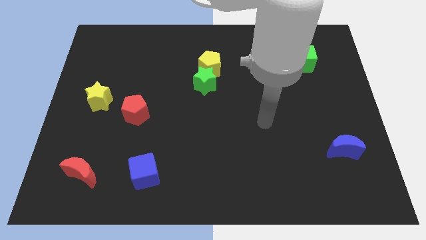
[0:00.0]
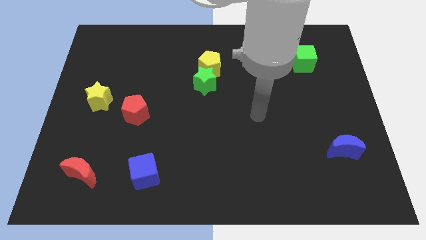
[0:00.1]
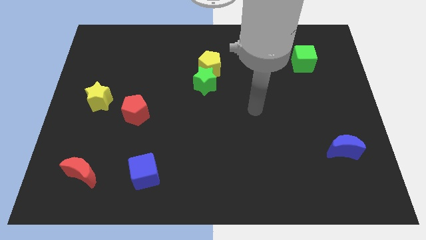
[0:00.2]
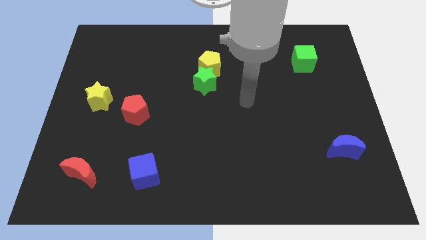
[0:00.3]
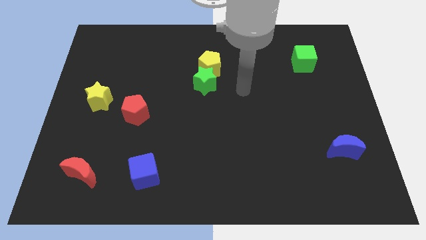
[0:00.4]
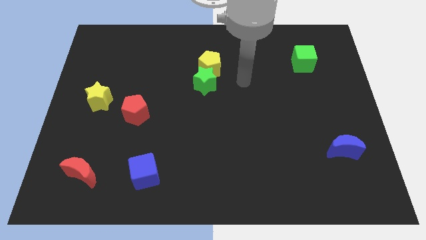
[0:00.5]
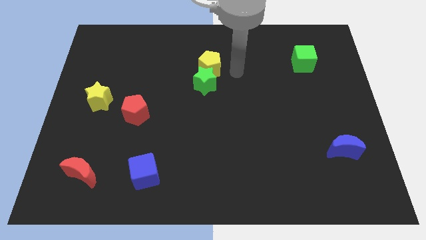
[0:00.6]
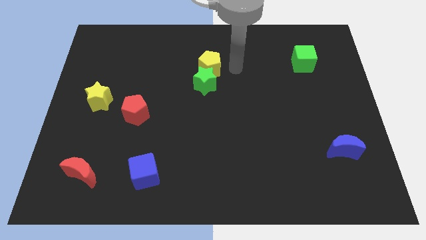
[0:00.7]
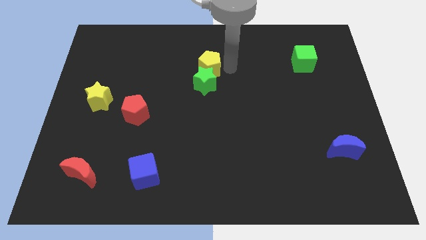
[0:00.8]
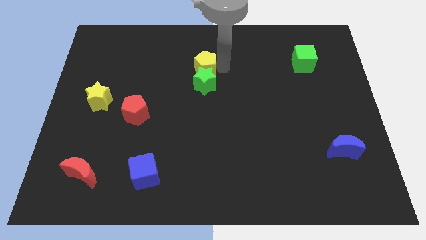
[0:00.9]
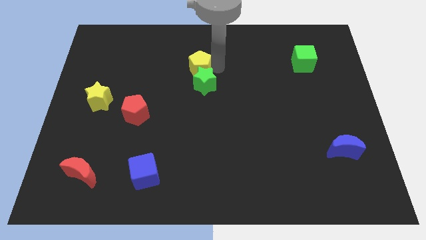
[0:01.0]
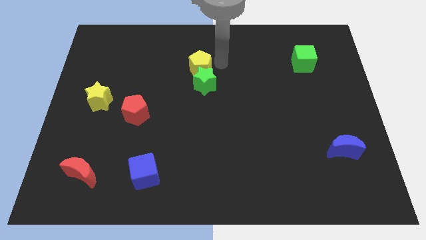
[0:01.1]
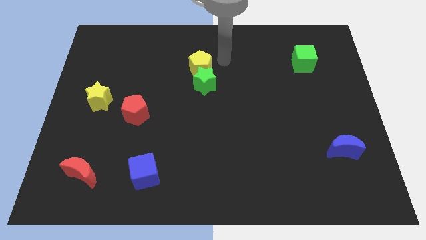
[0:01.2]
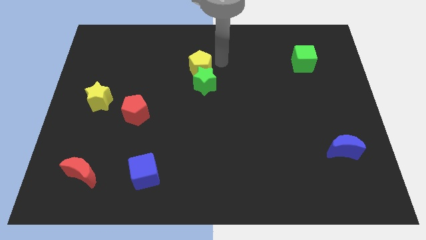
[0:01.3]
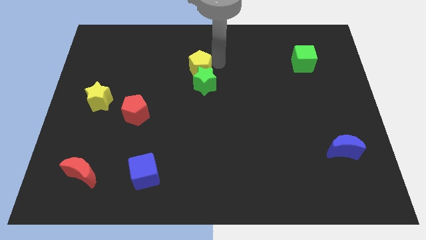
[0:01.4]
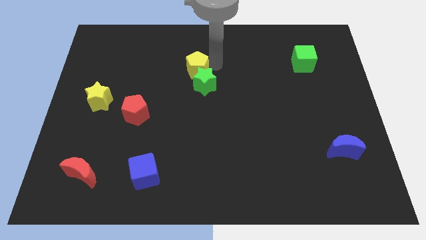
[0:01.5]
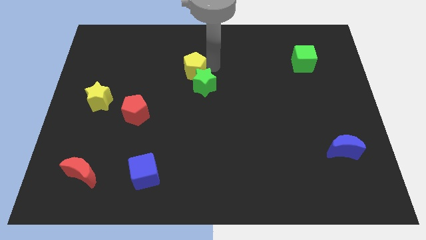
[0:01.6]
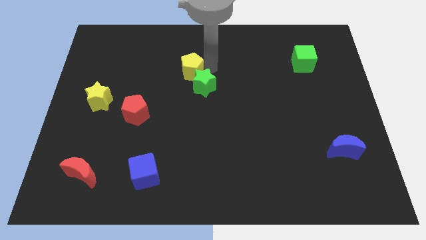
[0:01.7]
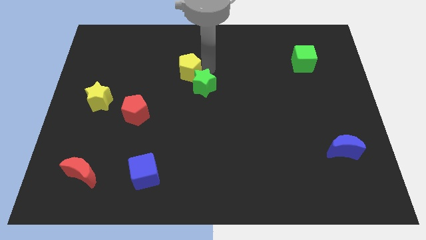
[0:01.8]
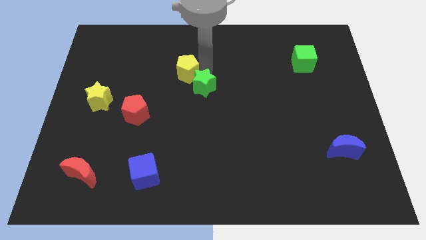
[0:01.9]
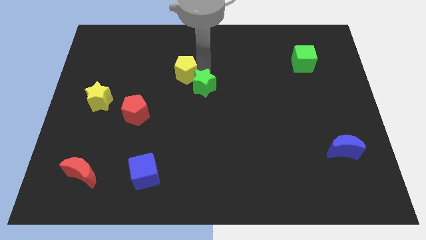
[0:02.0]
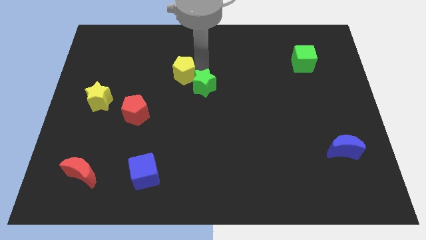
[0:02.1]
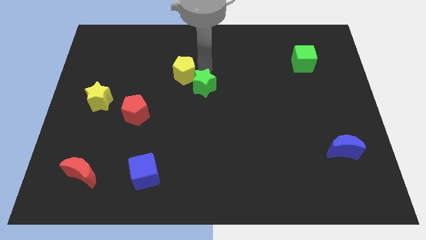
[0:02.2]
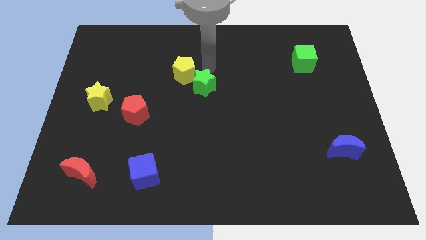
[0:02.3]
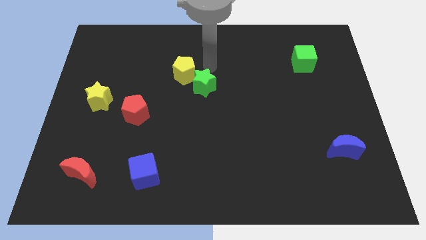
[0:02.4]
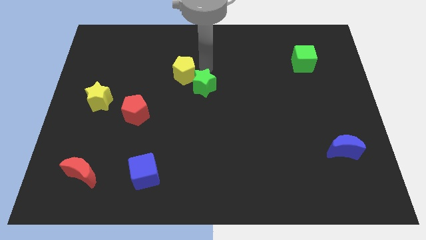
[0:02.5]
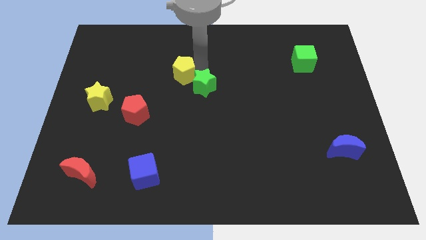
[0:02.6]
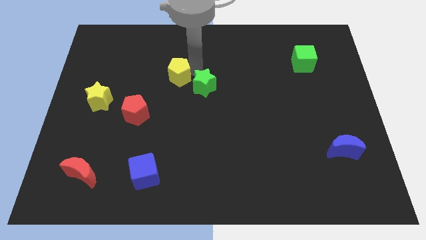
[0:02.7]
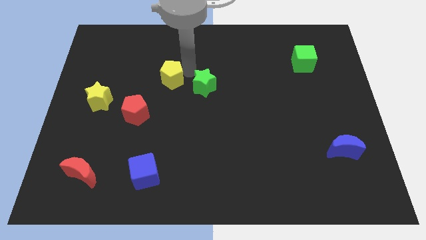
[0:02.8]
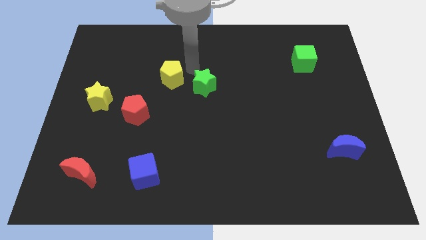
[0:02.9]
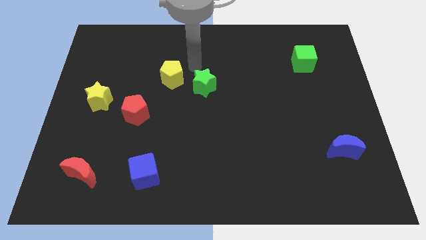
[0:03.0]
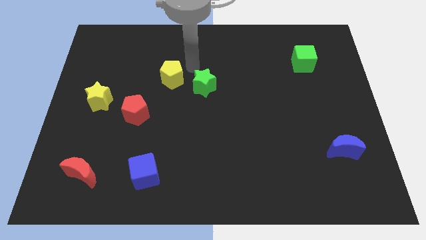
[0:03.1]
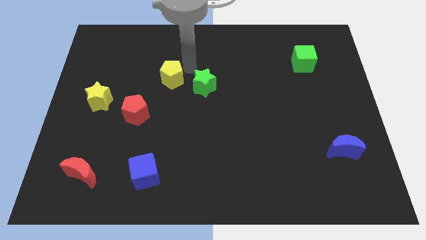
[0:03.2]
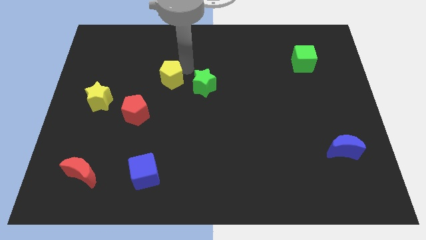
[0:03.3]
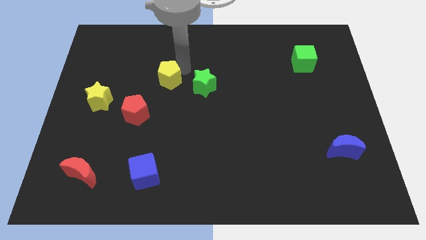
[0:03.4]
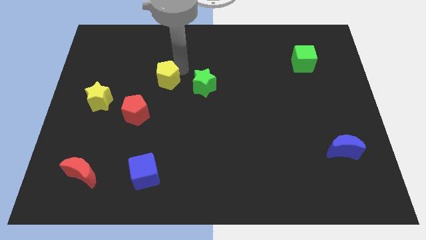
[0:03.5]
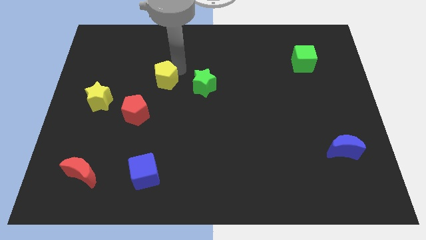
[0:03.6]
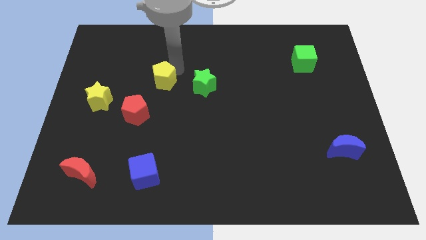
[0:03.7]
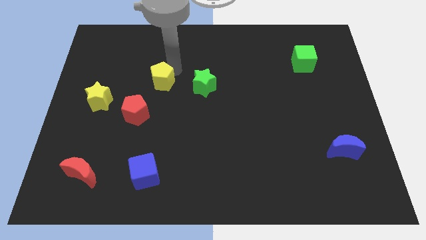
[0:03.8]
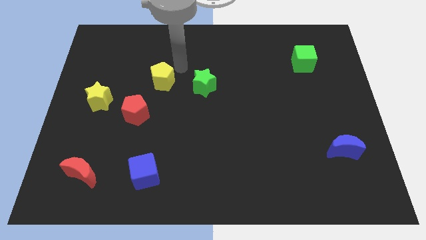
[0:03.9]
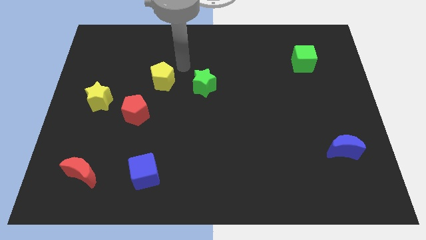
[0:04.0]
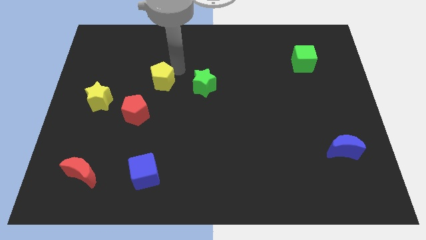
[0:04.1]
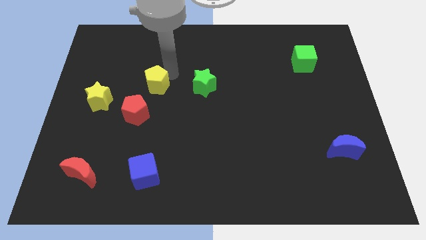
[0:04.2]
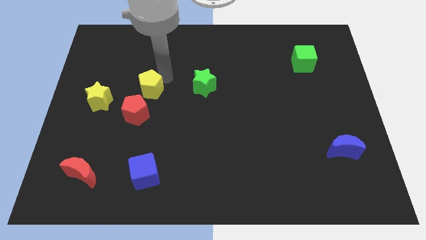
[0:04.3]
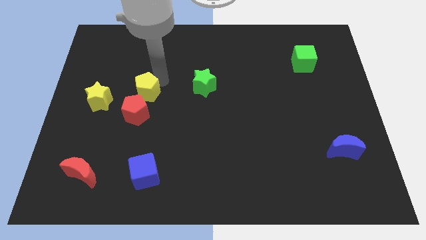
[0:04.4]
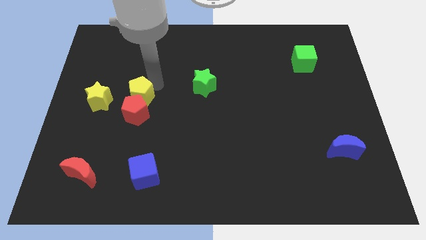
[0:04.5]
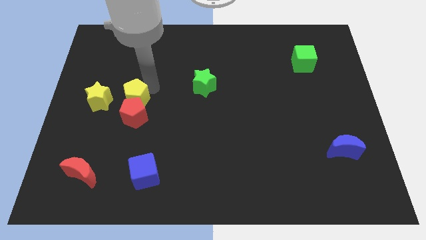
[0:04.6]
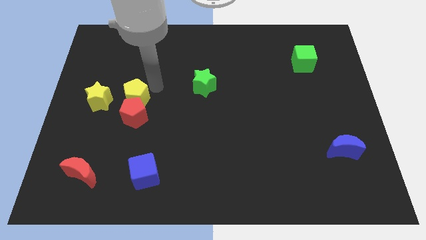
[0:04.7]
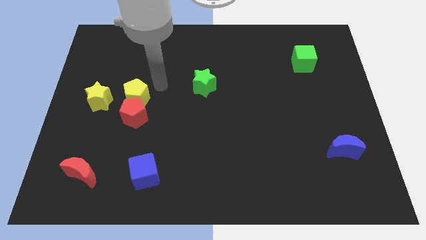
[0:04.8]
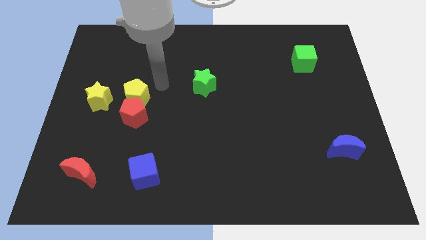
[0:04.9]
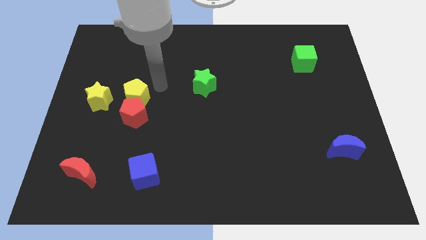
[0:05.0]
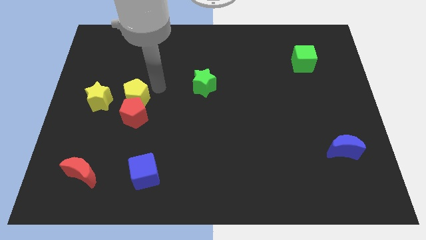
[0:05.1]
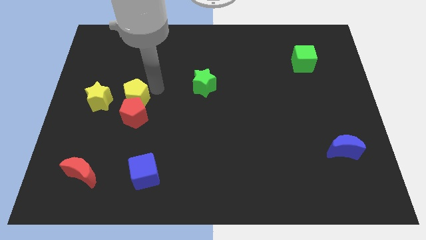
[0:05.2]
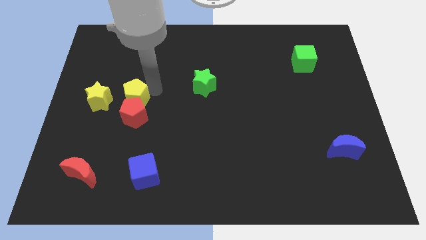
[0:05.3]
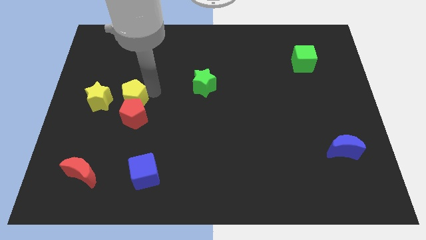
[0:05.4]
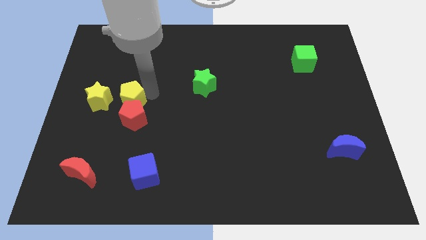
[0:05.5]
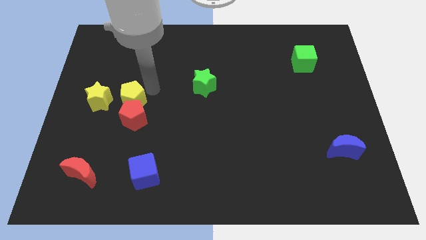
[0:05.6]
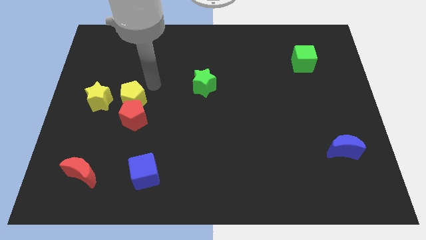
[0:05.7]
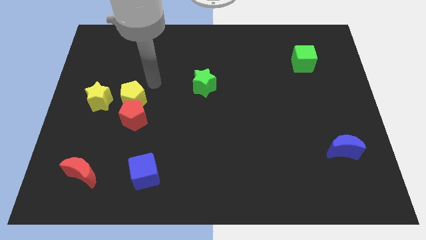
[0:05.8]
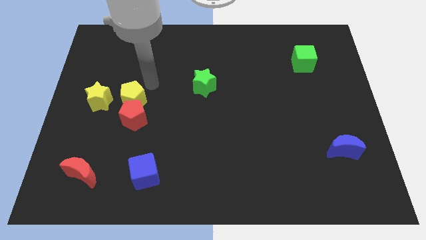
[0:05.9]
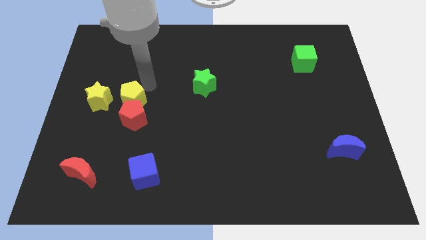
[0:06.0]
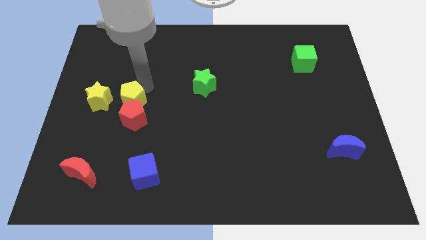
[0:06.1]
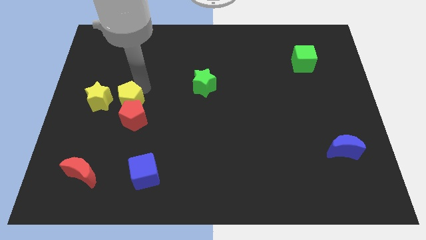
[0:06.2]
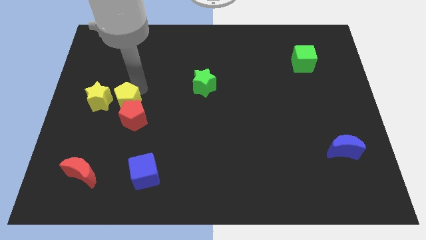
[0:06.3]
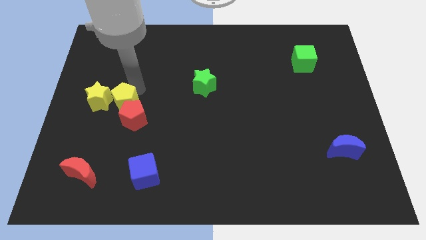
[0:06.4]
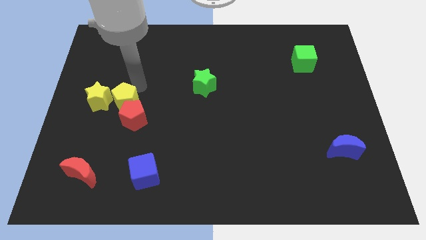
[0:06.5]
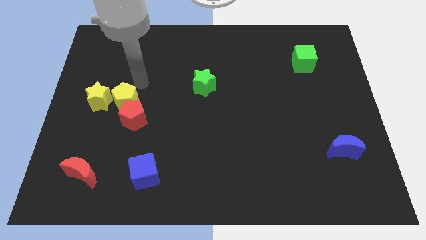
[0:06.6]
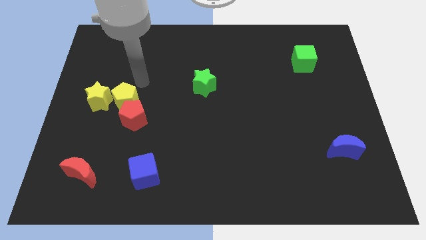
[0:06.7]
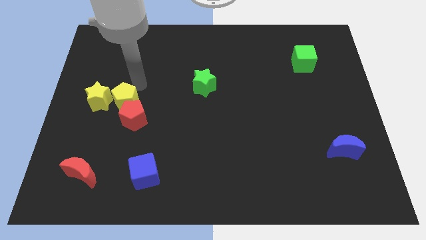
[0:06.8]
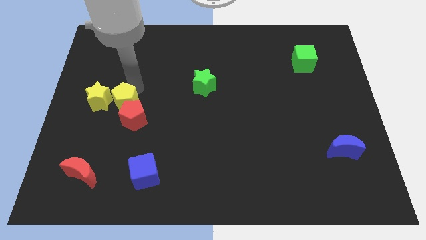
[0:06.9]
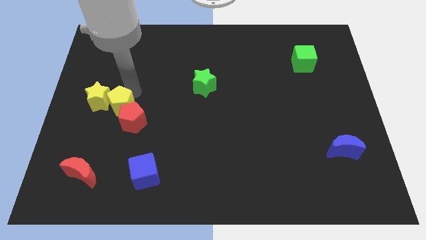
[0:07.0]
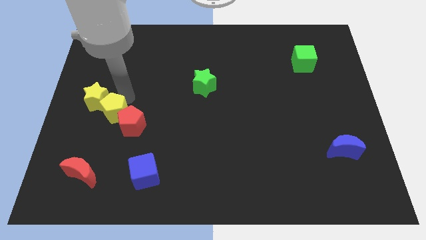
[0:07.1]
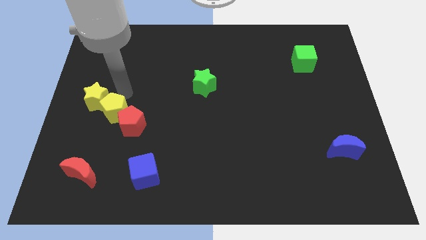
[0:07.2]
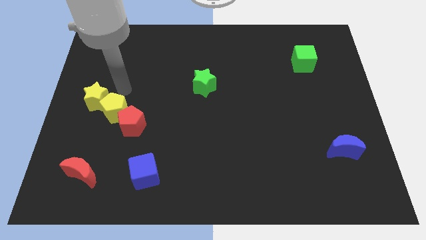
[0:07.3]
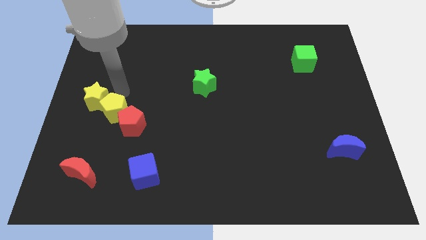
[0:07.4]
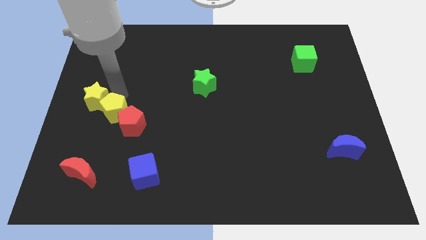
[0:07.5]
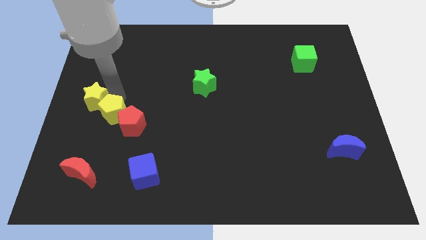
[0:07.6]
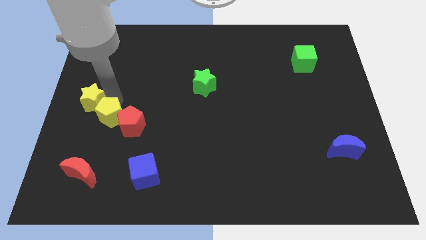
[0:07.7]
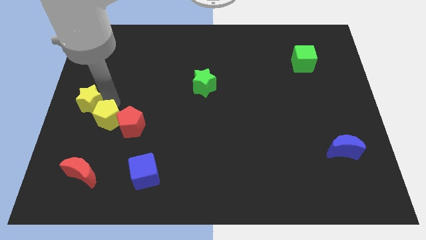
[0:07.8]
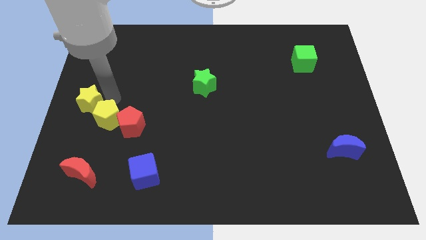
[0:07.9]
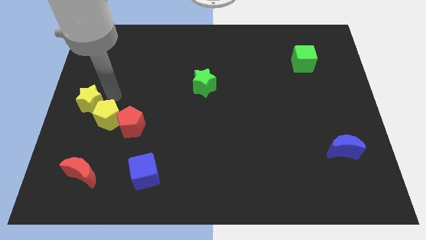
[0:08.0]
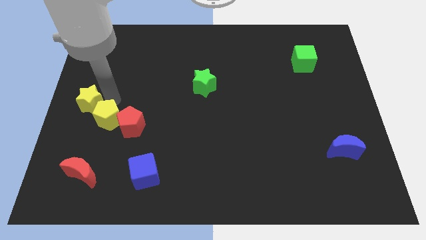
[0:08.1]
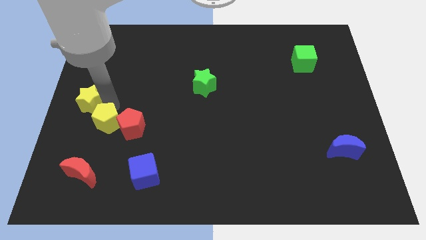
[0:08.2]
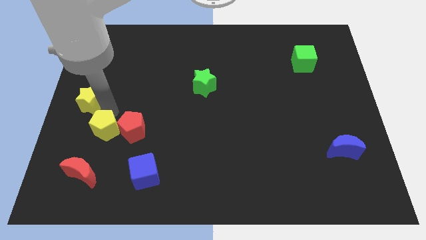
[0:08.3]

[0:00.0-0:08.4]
push the yellow pentagon diagonally down and to the left of the red pentagon
